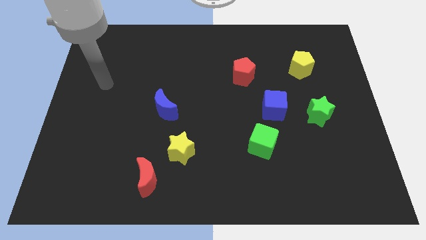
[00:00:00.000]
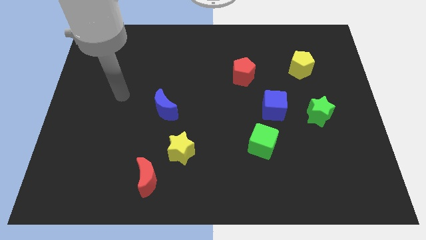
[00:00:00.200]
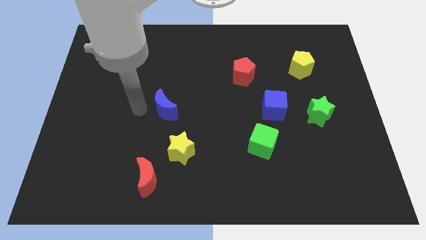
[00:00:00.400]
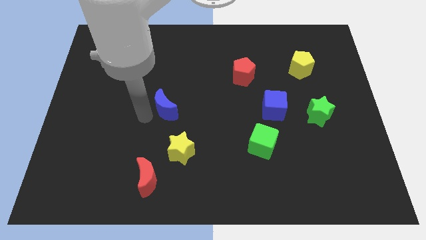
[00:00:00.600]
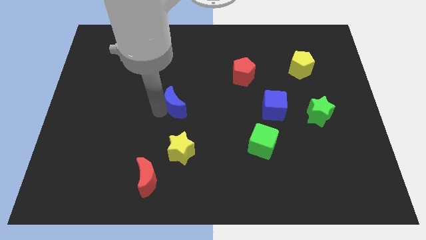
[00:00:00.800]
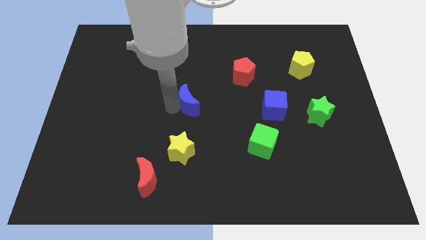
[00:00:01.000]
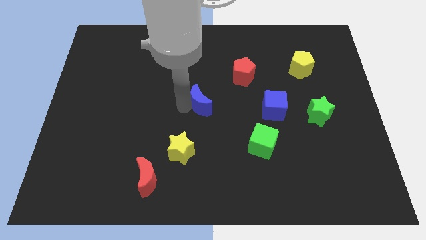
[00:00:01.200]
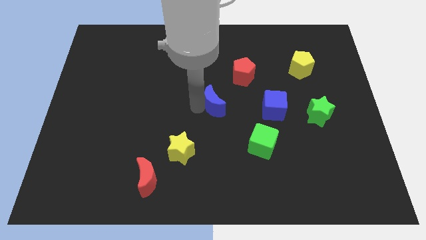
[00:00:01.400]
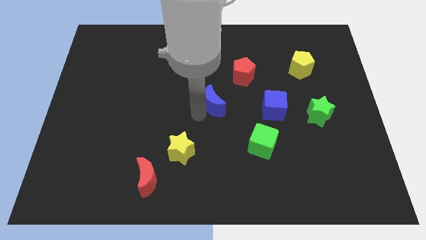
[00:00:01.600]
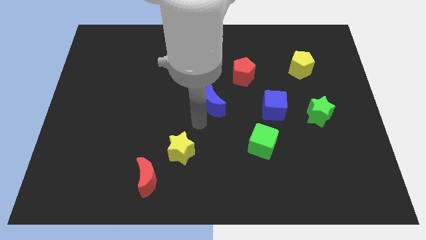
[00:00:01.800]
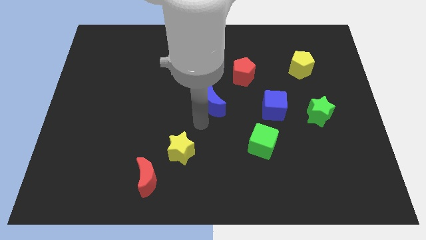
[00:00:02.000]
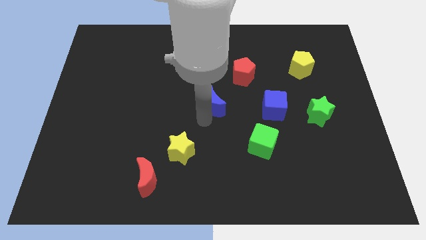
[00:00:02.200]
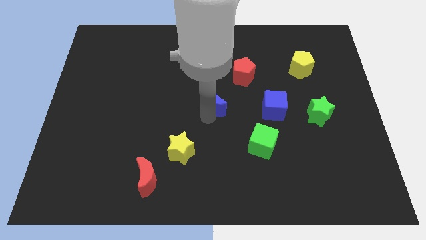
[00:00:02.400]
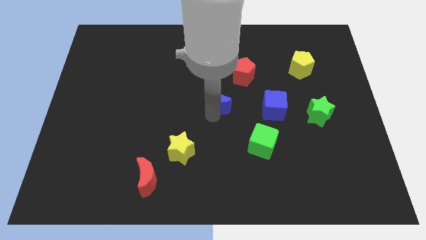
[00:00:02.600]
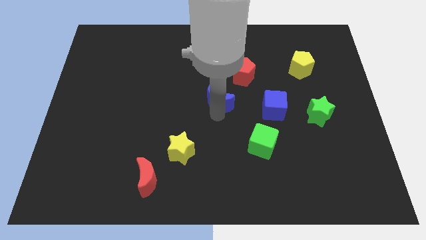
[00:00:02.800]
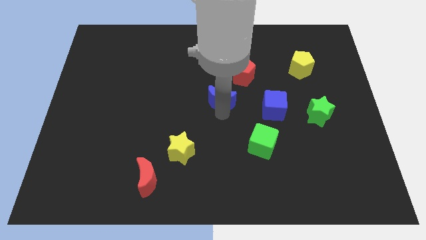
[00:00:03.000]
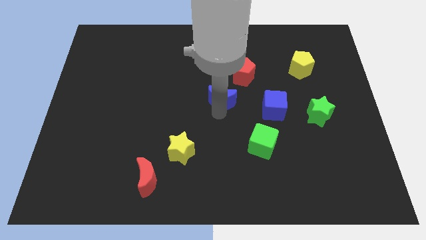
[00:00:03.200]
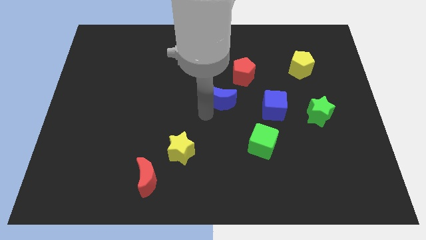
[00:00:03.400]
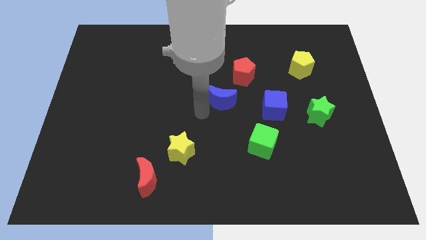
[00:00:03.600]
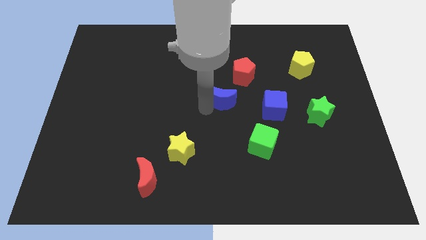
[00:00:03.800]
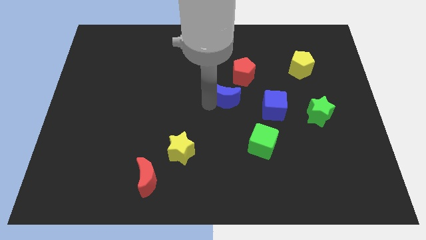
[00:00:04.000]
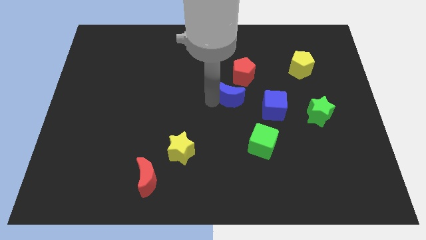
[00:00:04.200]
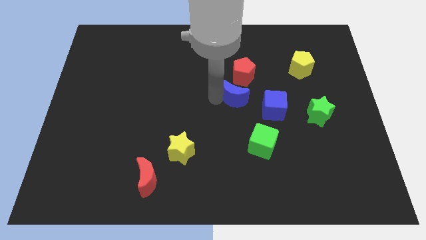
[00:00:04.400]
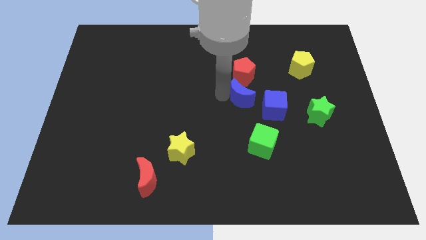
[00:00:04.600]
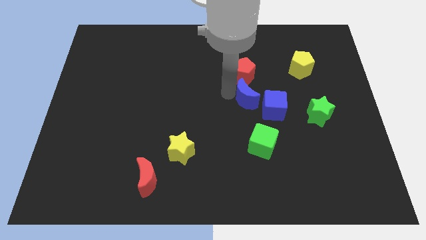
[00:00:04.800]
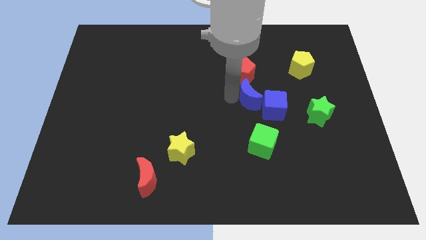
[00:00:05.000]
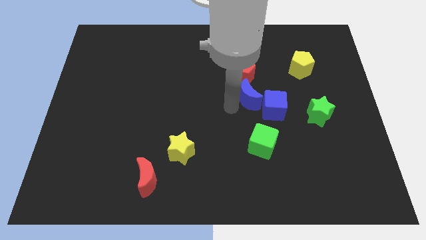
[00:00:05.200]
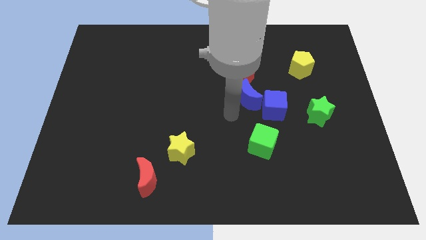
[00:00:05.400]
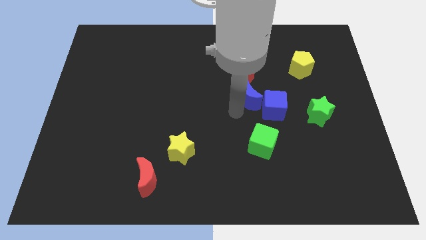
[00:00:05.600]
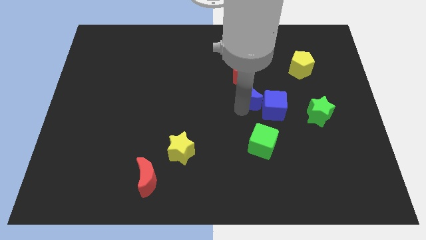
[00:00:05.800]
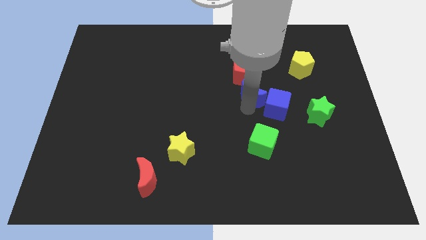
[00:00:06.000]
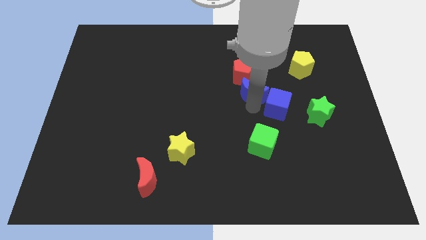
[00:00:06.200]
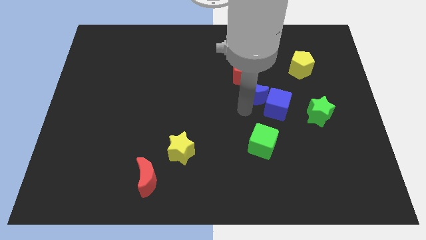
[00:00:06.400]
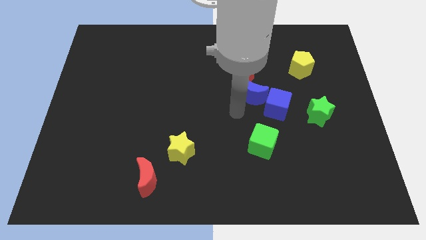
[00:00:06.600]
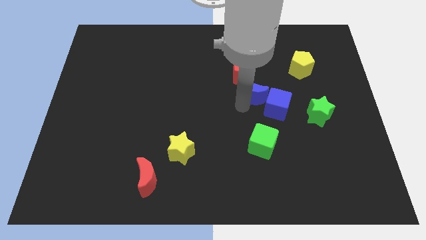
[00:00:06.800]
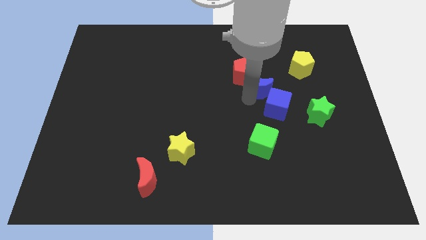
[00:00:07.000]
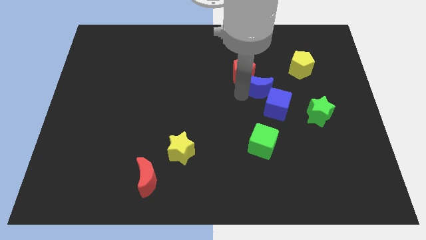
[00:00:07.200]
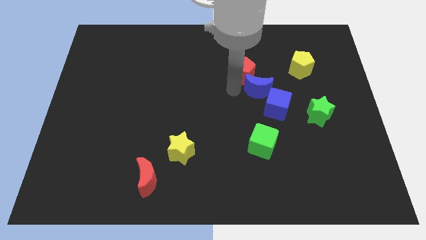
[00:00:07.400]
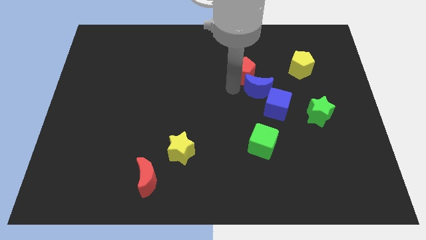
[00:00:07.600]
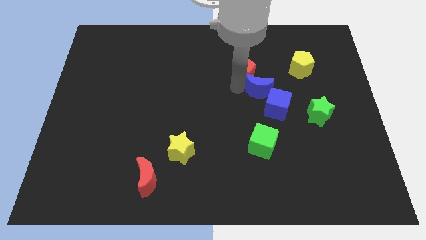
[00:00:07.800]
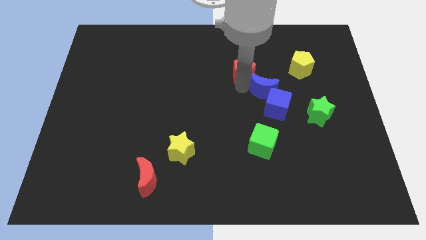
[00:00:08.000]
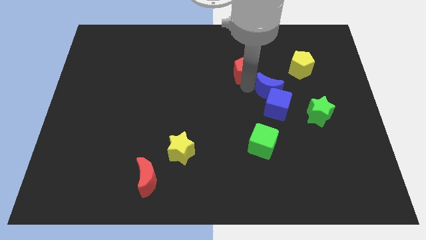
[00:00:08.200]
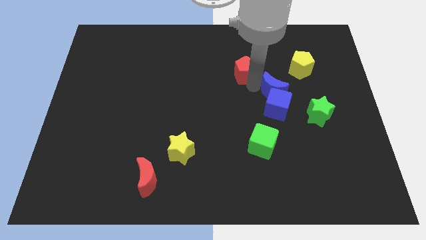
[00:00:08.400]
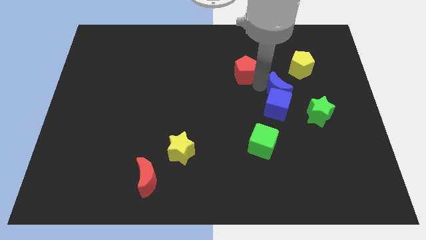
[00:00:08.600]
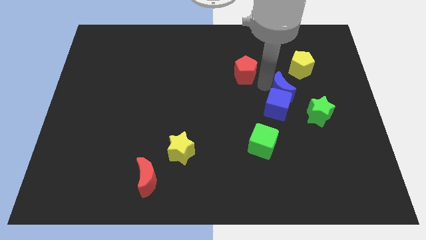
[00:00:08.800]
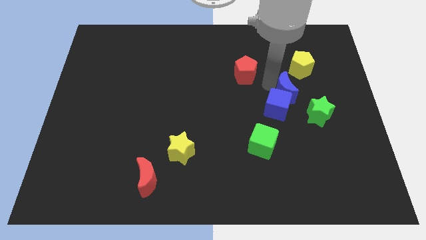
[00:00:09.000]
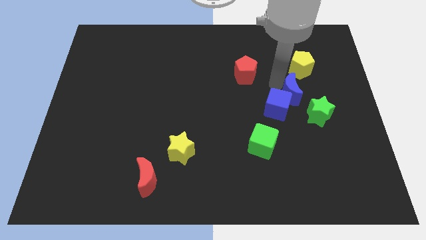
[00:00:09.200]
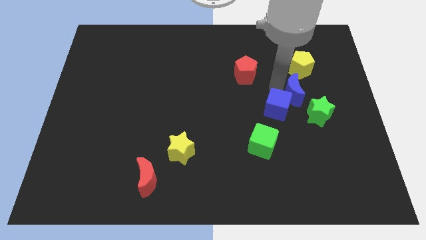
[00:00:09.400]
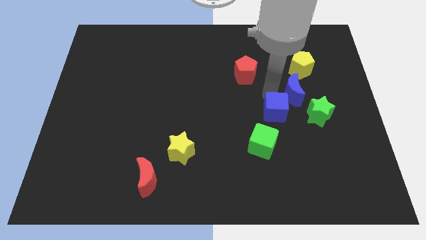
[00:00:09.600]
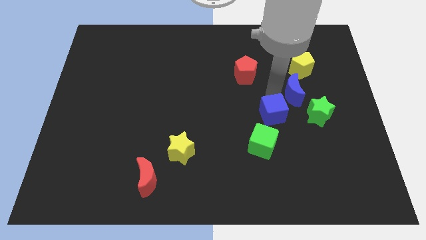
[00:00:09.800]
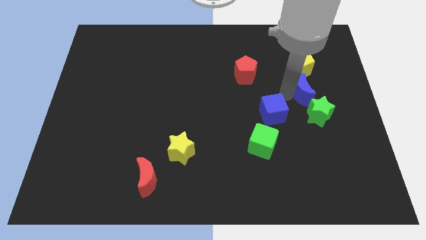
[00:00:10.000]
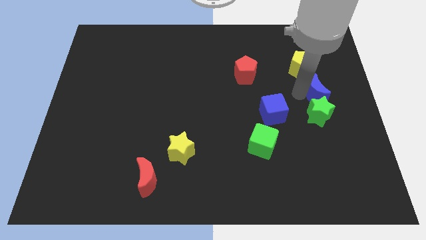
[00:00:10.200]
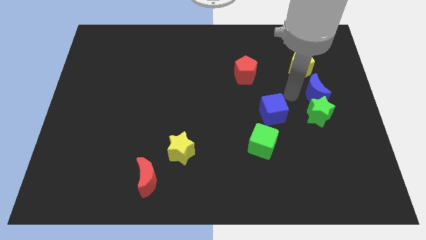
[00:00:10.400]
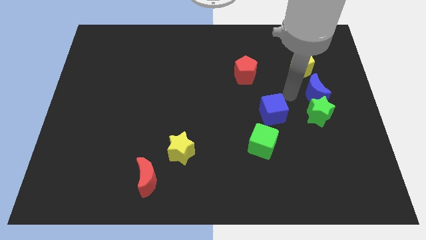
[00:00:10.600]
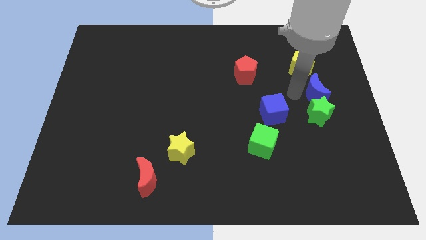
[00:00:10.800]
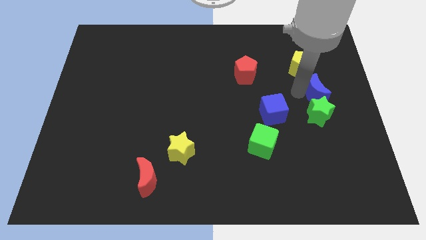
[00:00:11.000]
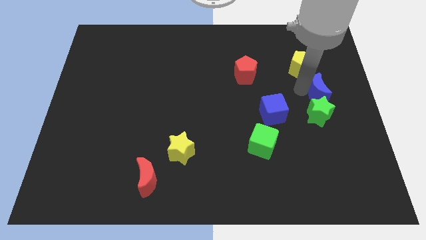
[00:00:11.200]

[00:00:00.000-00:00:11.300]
put the blue moon to the right side of the board
